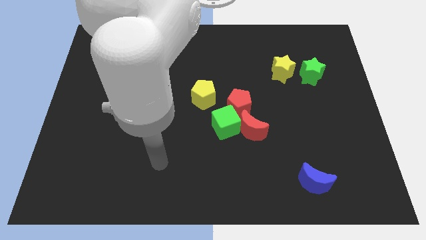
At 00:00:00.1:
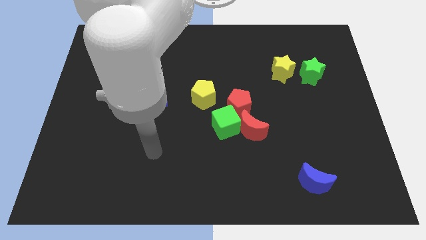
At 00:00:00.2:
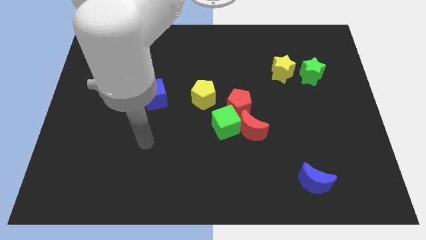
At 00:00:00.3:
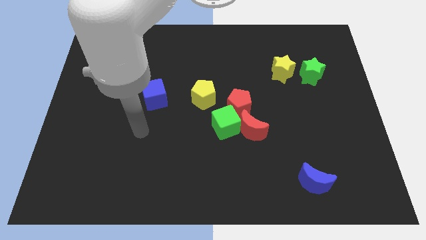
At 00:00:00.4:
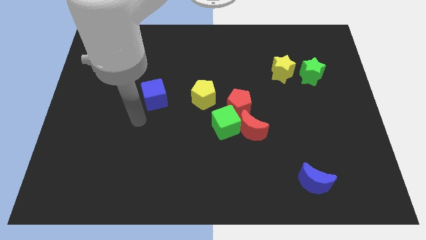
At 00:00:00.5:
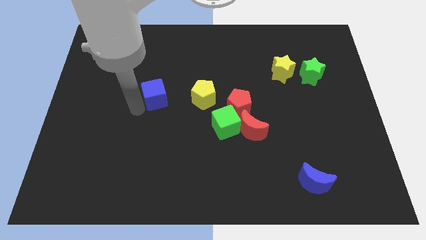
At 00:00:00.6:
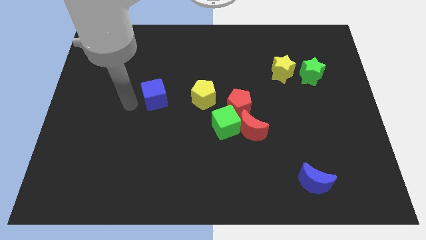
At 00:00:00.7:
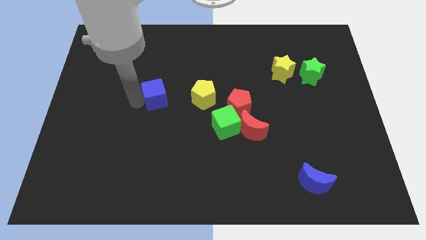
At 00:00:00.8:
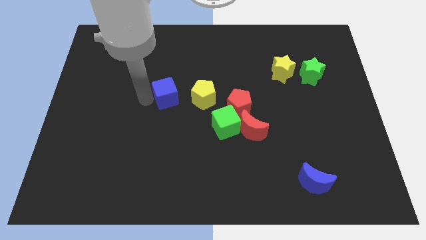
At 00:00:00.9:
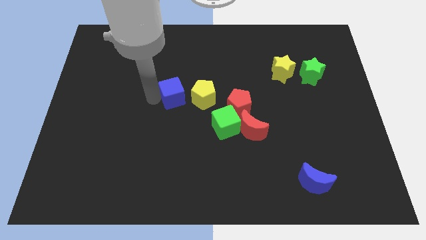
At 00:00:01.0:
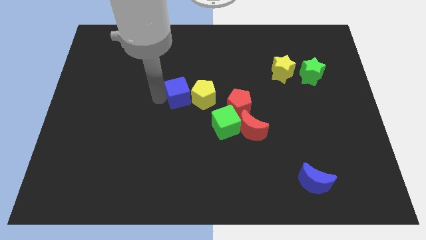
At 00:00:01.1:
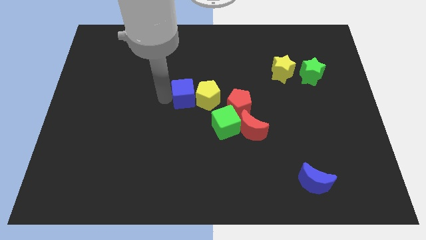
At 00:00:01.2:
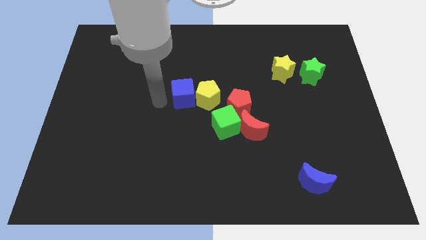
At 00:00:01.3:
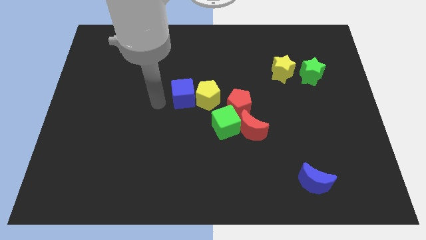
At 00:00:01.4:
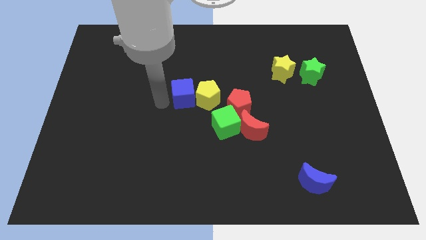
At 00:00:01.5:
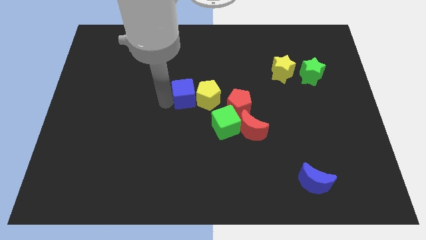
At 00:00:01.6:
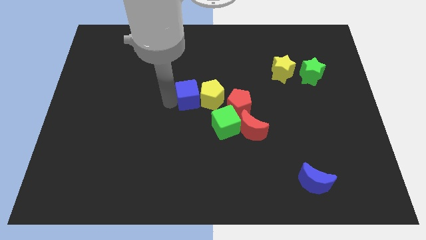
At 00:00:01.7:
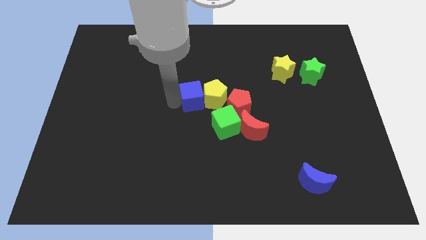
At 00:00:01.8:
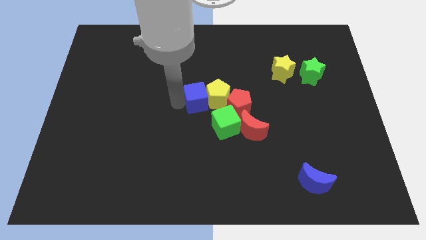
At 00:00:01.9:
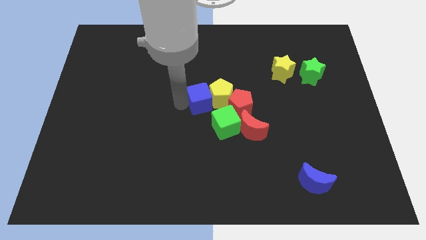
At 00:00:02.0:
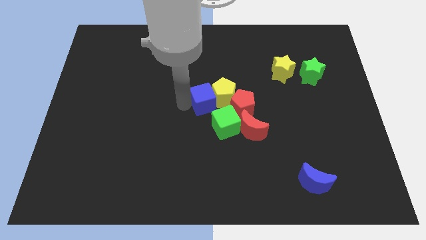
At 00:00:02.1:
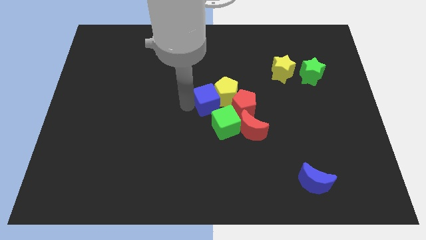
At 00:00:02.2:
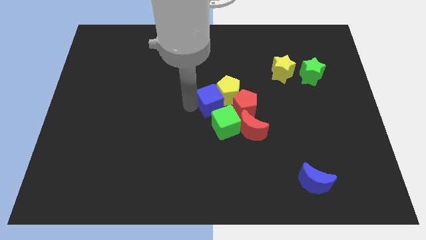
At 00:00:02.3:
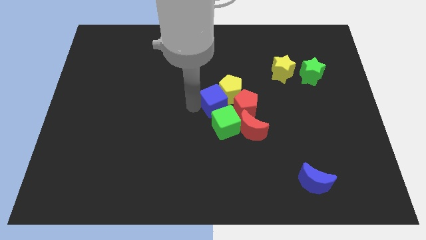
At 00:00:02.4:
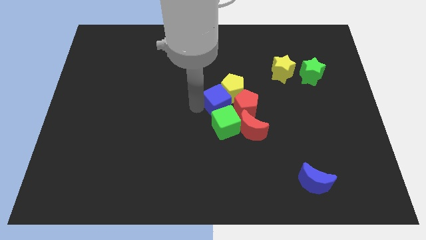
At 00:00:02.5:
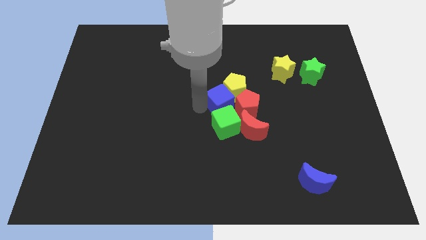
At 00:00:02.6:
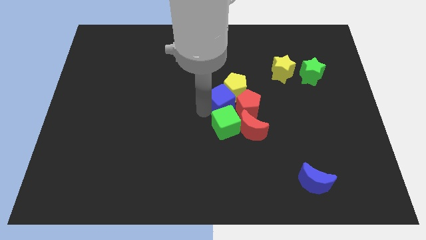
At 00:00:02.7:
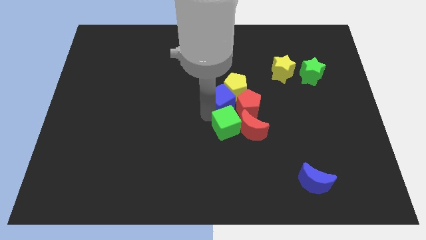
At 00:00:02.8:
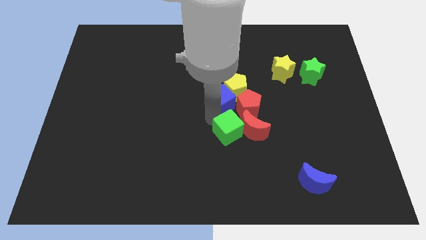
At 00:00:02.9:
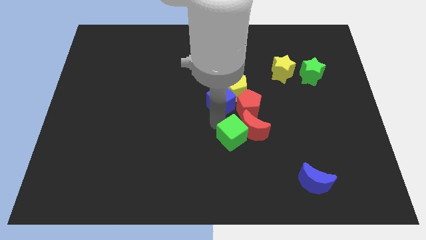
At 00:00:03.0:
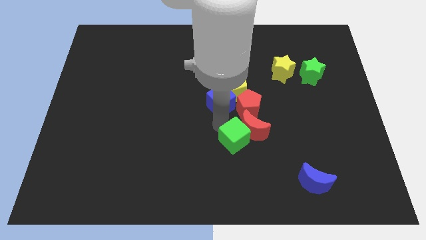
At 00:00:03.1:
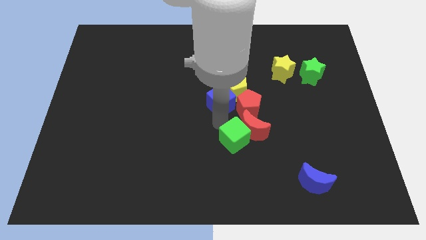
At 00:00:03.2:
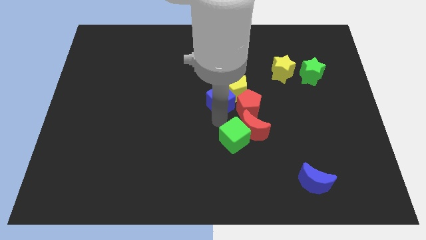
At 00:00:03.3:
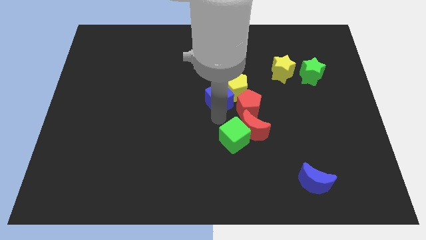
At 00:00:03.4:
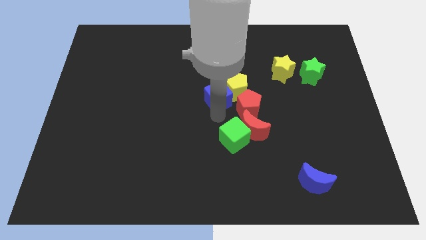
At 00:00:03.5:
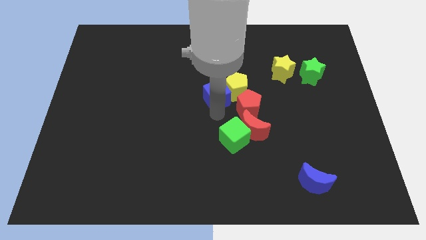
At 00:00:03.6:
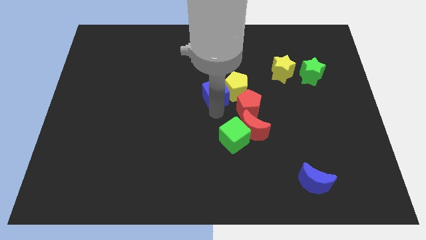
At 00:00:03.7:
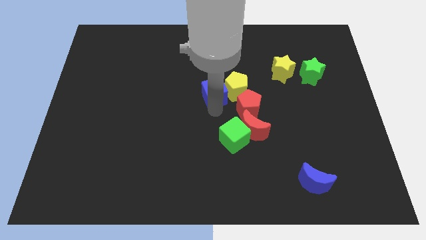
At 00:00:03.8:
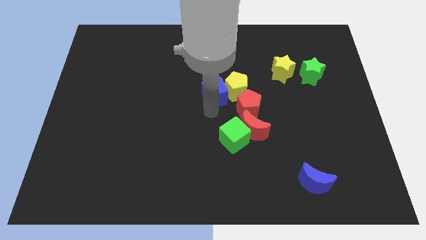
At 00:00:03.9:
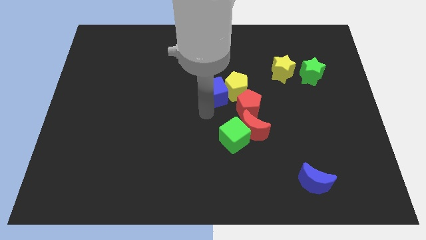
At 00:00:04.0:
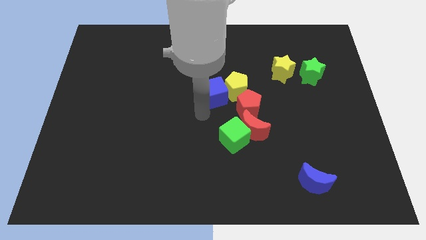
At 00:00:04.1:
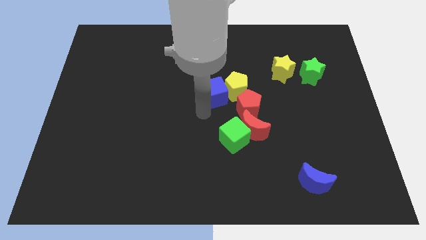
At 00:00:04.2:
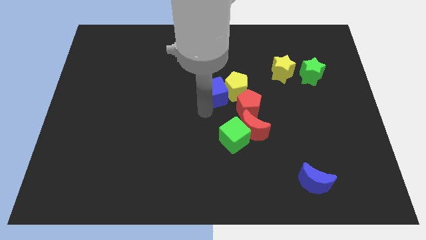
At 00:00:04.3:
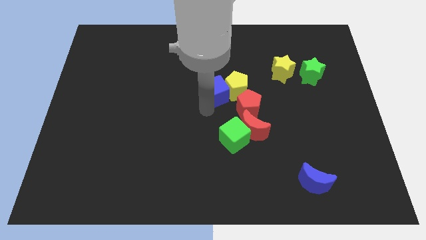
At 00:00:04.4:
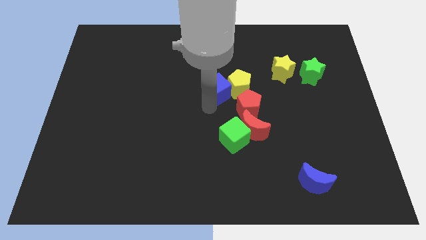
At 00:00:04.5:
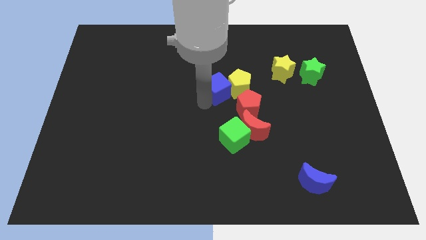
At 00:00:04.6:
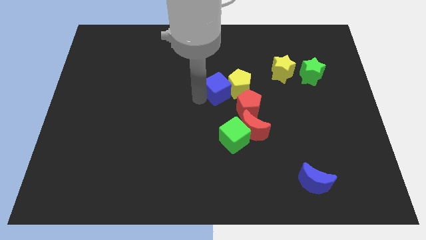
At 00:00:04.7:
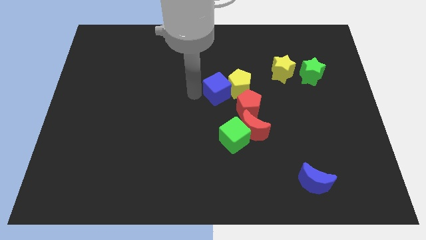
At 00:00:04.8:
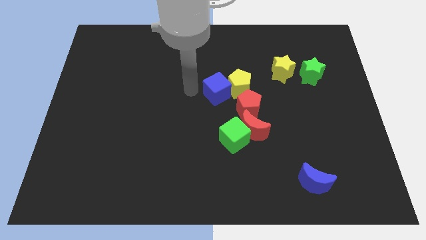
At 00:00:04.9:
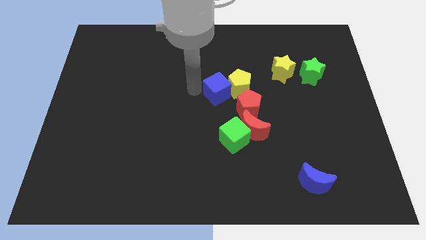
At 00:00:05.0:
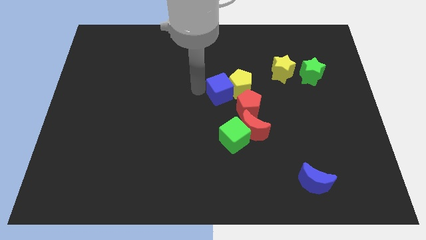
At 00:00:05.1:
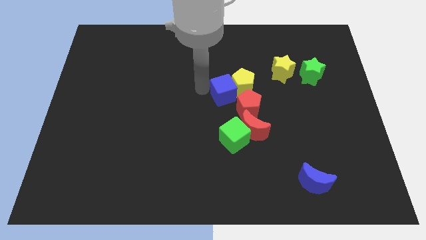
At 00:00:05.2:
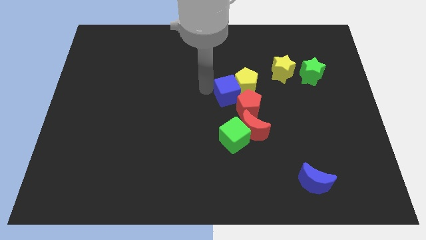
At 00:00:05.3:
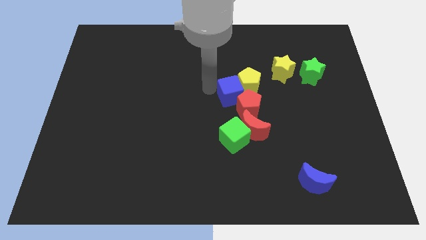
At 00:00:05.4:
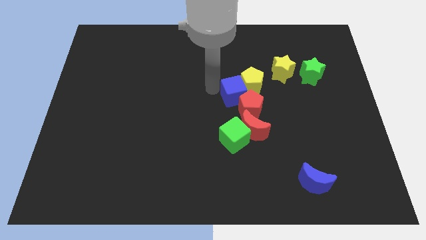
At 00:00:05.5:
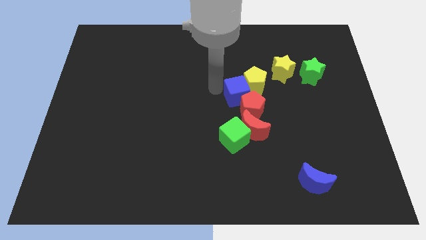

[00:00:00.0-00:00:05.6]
slide the blue cube right

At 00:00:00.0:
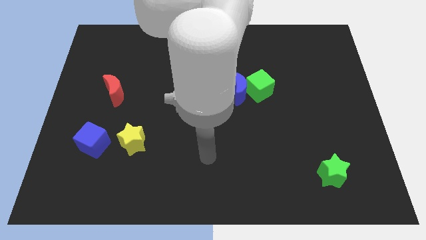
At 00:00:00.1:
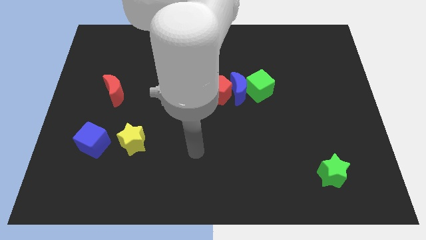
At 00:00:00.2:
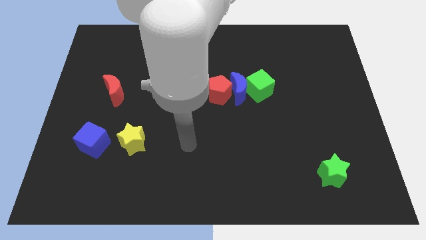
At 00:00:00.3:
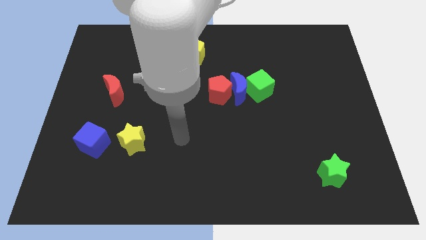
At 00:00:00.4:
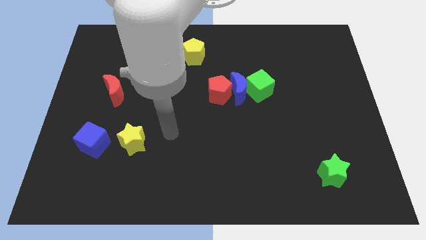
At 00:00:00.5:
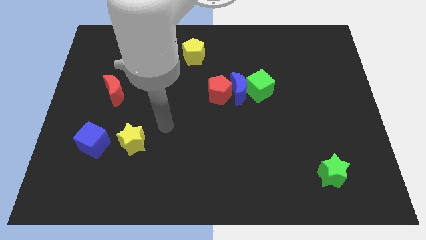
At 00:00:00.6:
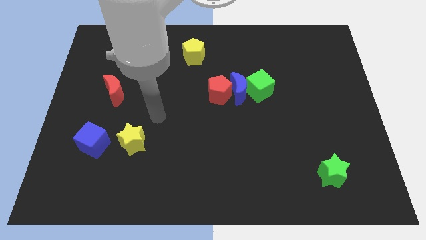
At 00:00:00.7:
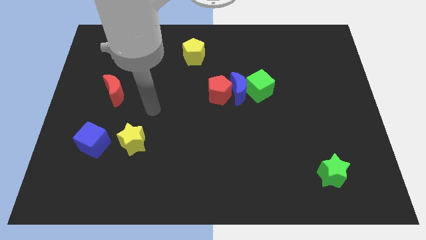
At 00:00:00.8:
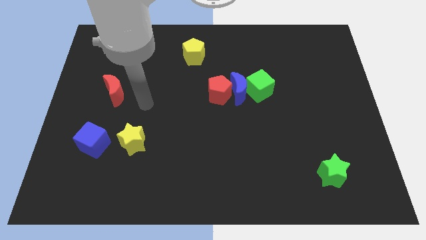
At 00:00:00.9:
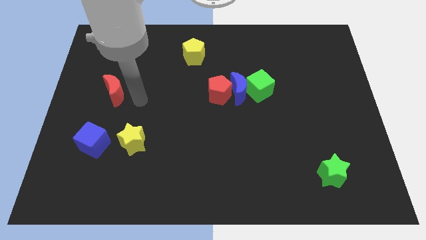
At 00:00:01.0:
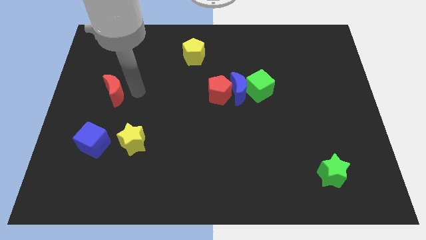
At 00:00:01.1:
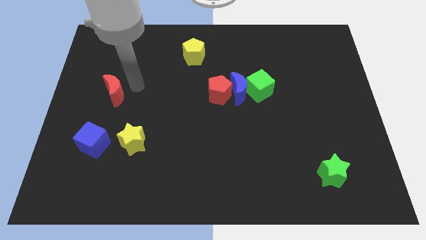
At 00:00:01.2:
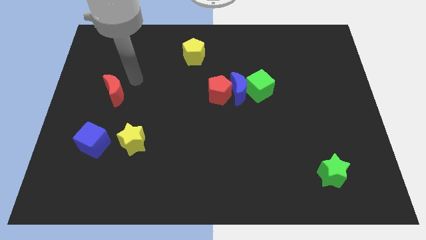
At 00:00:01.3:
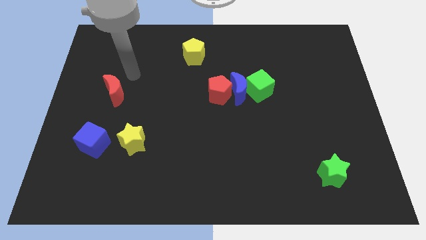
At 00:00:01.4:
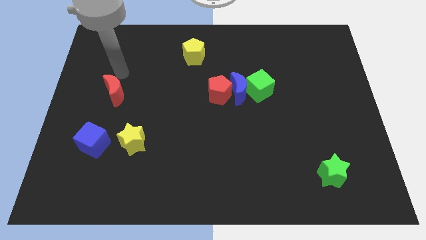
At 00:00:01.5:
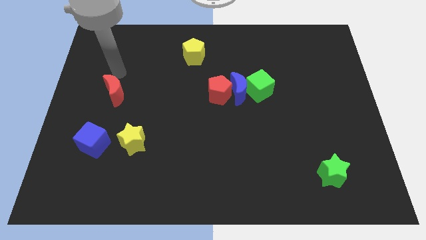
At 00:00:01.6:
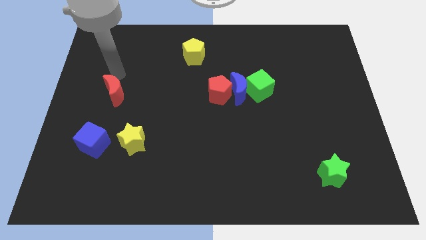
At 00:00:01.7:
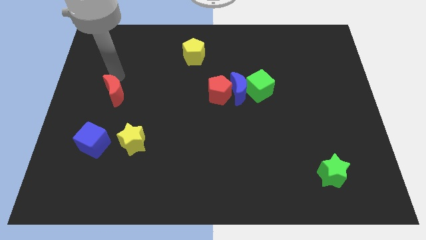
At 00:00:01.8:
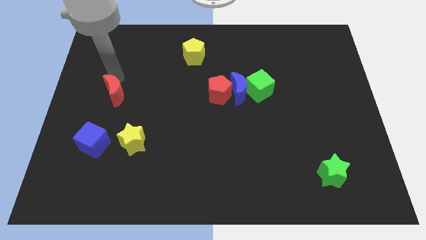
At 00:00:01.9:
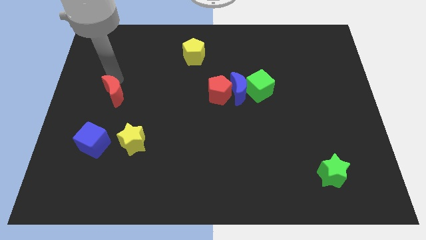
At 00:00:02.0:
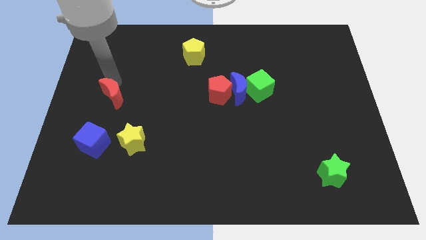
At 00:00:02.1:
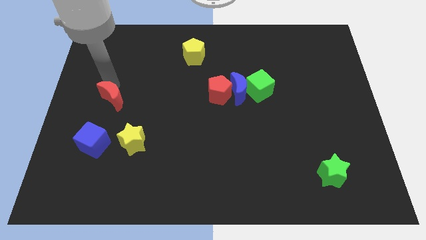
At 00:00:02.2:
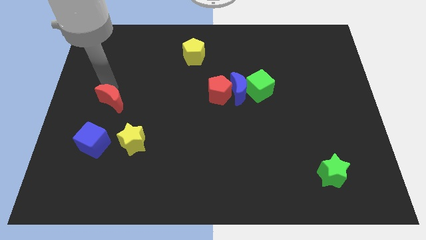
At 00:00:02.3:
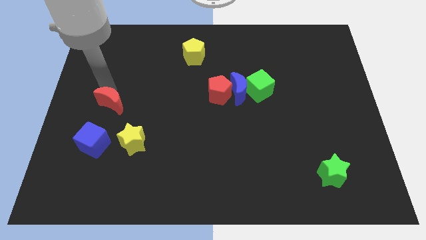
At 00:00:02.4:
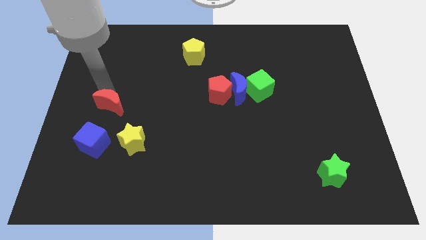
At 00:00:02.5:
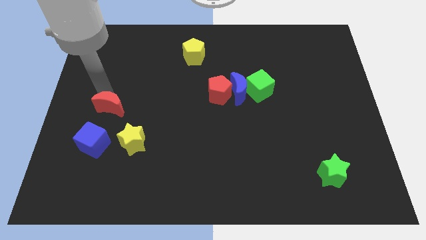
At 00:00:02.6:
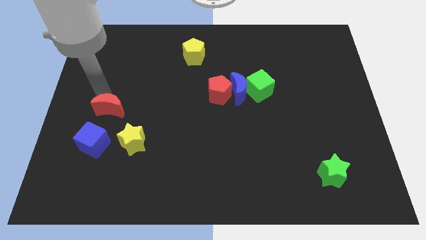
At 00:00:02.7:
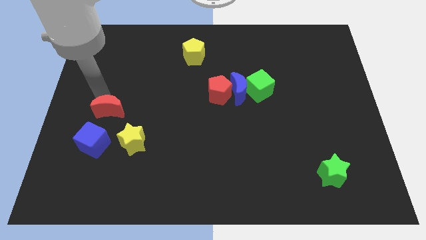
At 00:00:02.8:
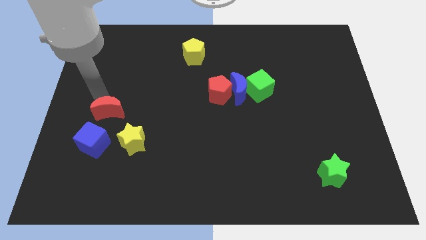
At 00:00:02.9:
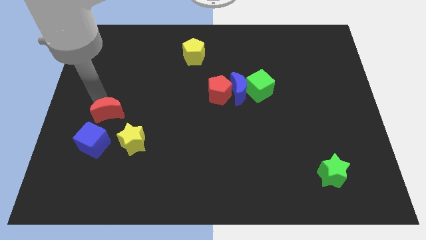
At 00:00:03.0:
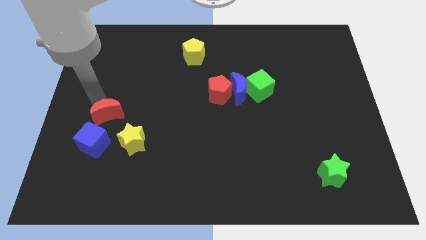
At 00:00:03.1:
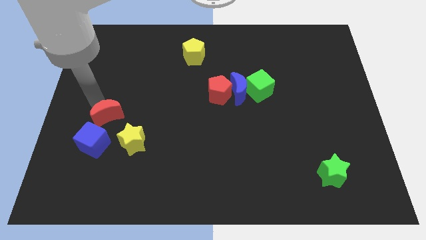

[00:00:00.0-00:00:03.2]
slightly slide the red moon downwards
